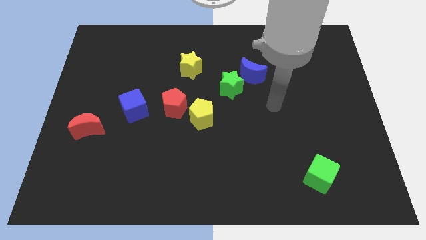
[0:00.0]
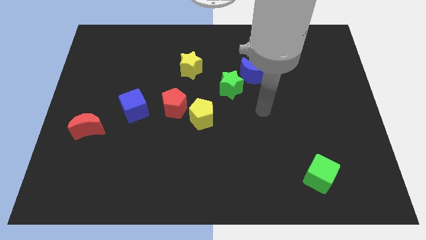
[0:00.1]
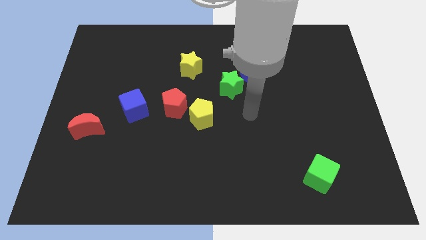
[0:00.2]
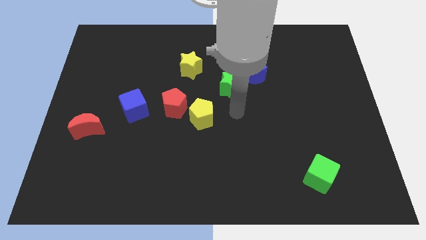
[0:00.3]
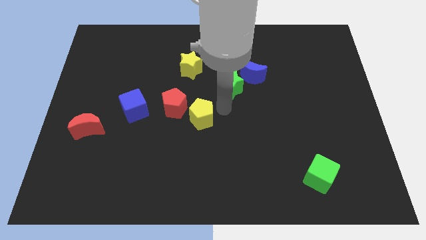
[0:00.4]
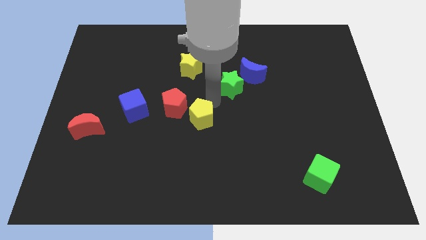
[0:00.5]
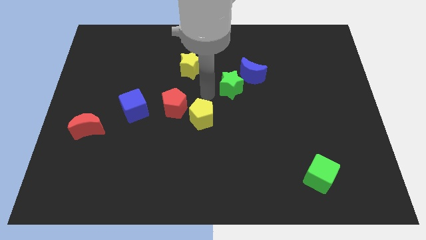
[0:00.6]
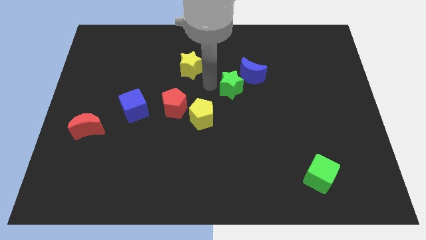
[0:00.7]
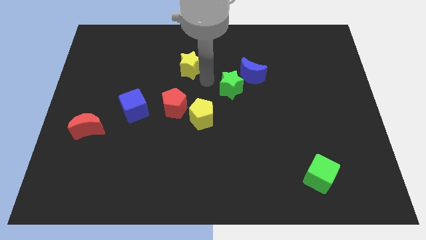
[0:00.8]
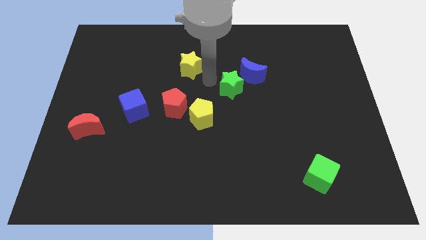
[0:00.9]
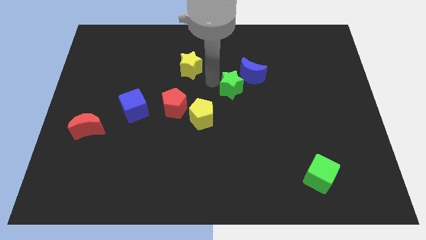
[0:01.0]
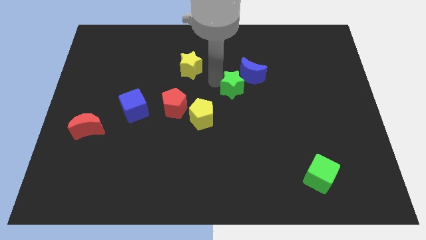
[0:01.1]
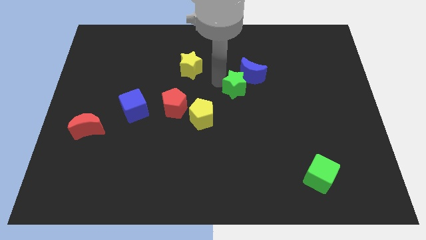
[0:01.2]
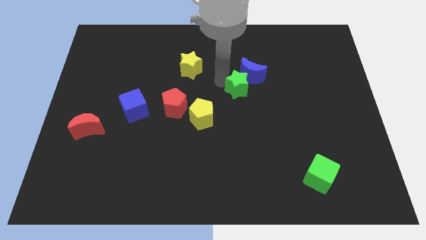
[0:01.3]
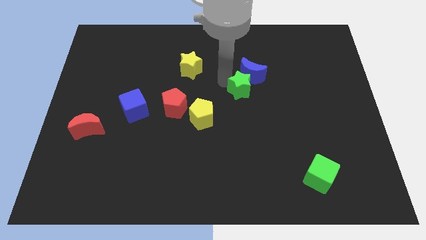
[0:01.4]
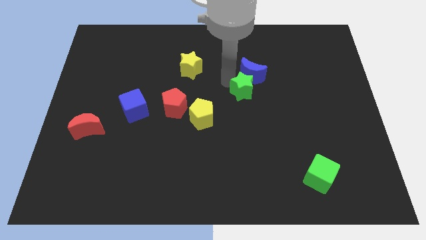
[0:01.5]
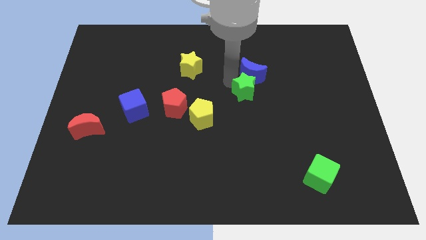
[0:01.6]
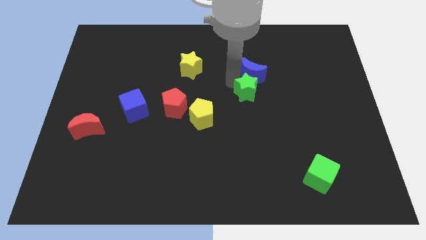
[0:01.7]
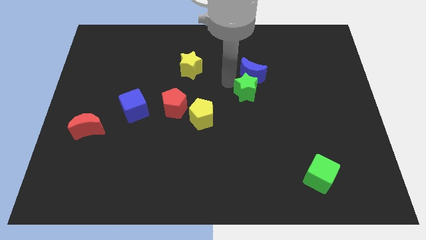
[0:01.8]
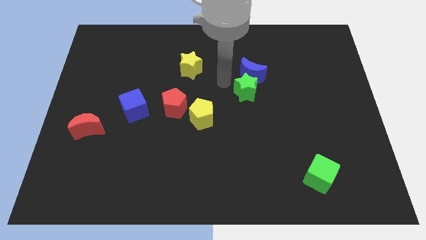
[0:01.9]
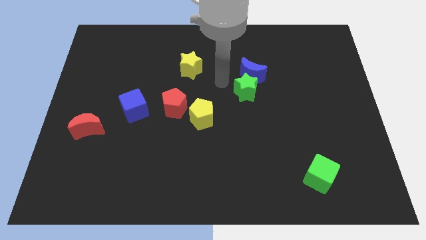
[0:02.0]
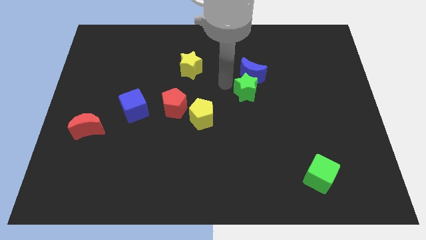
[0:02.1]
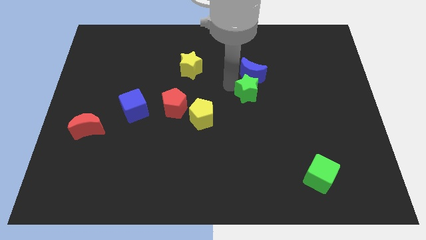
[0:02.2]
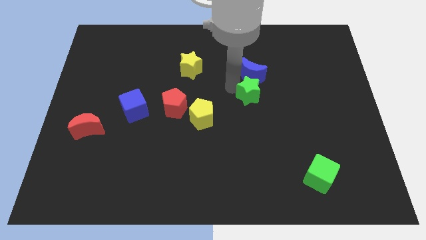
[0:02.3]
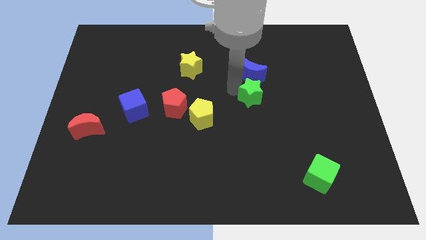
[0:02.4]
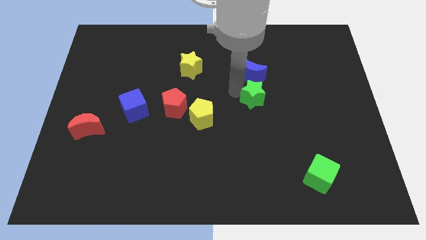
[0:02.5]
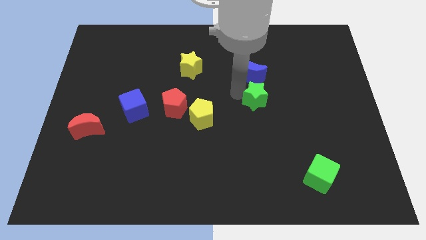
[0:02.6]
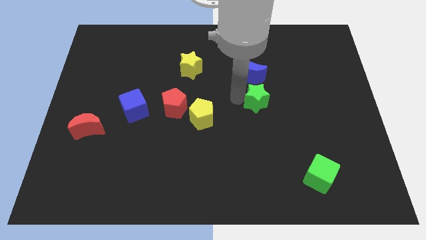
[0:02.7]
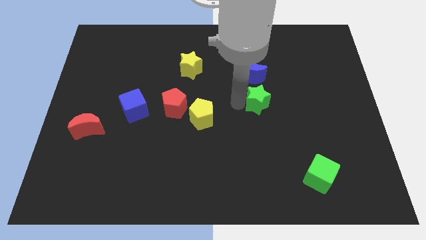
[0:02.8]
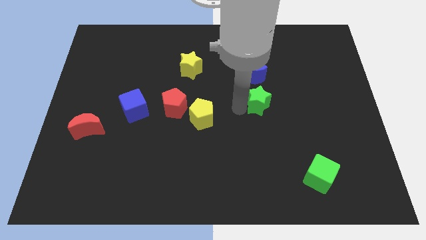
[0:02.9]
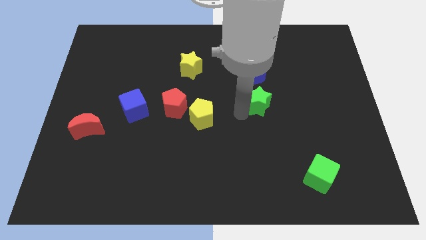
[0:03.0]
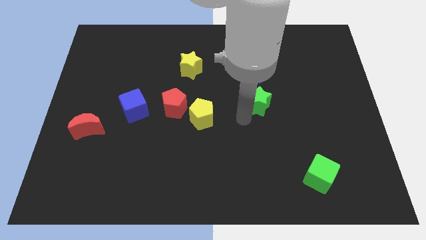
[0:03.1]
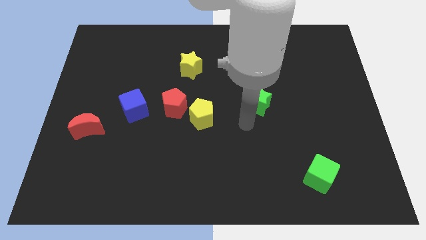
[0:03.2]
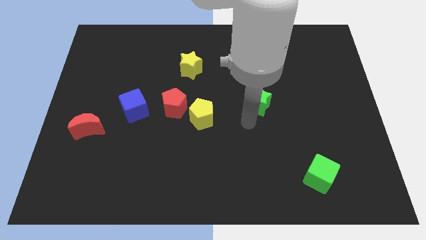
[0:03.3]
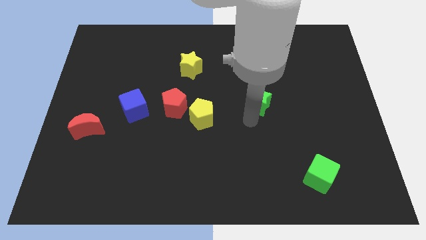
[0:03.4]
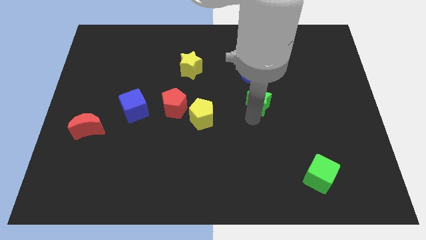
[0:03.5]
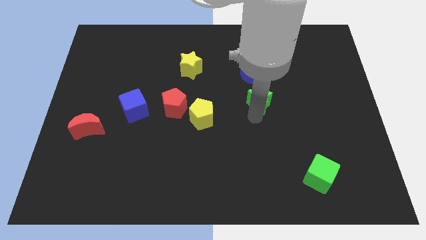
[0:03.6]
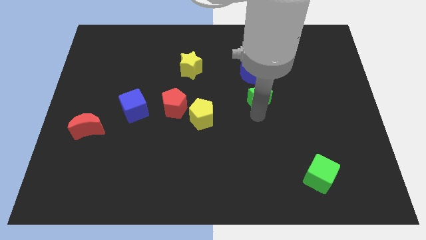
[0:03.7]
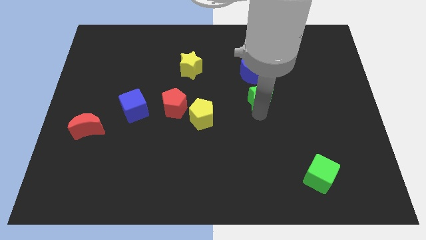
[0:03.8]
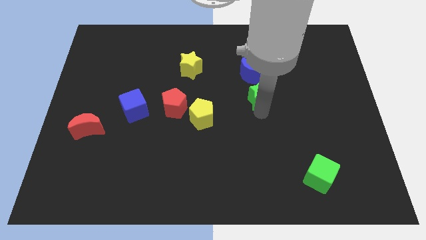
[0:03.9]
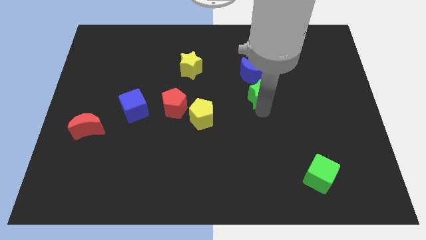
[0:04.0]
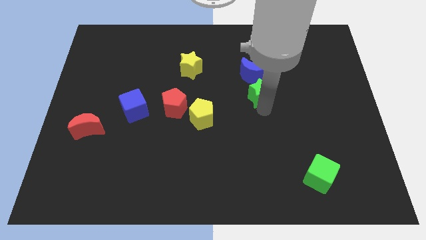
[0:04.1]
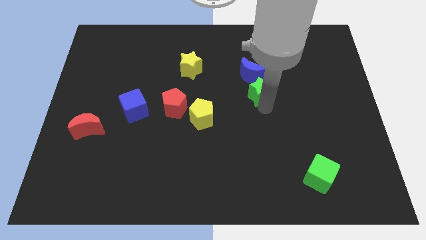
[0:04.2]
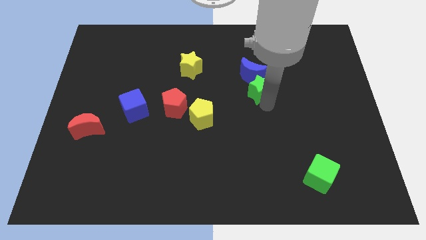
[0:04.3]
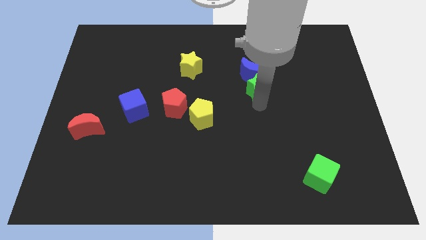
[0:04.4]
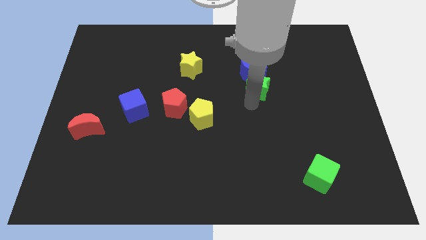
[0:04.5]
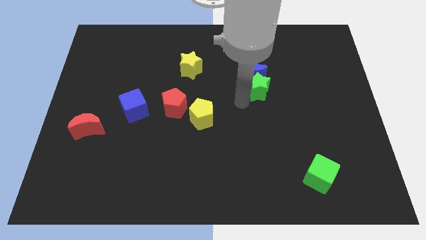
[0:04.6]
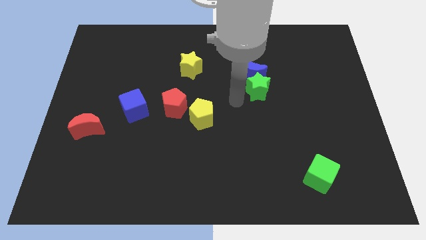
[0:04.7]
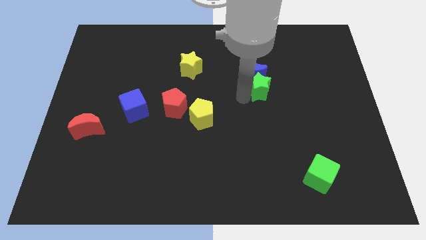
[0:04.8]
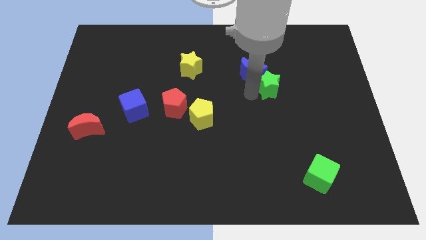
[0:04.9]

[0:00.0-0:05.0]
push the green star right of the blue moon

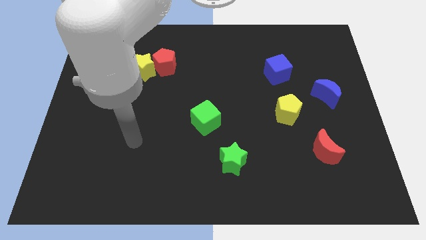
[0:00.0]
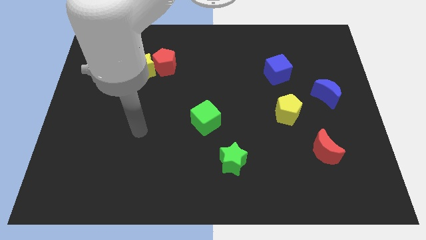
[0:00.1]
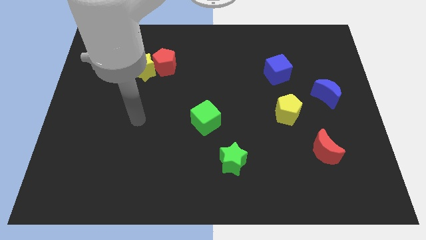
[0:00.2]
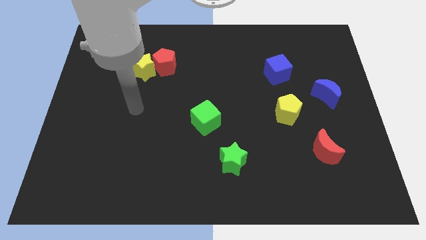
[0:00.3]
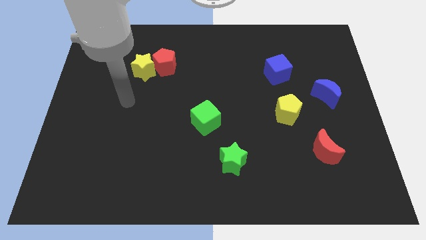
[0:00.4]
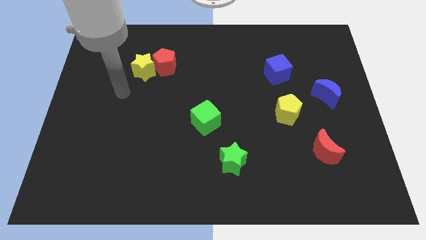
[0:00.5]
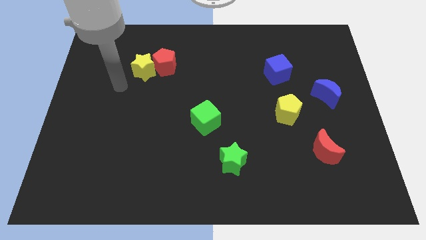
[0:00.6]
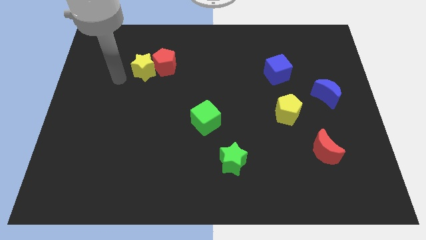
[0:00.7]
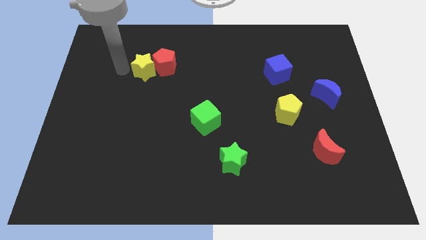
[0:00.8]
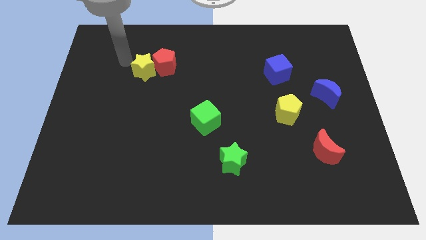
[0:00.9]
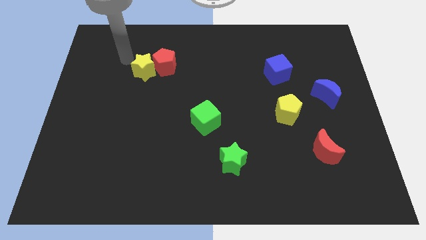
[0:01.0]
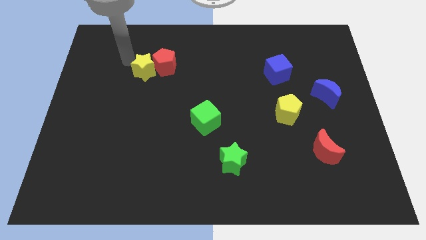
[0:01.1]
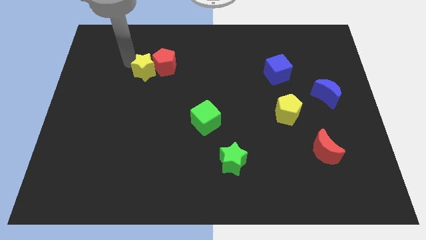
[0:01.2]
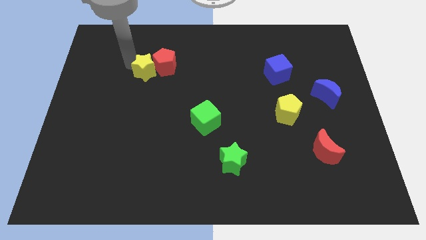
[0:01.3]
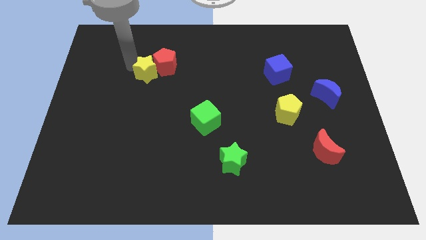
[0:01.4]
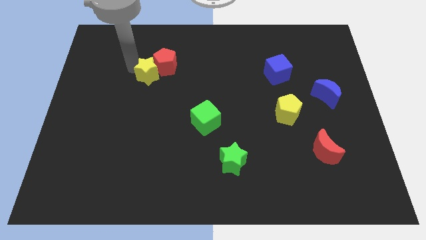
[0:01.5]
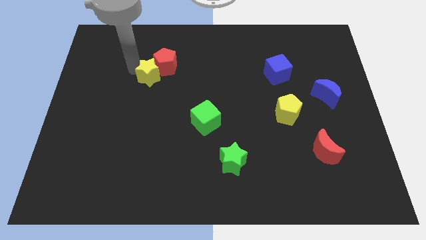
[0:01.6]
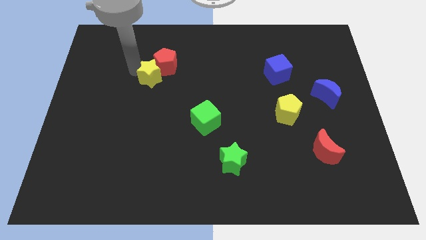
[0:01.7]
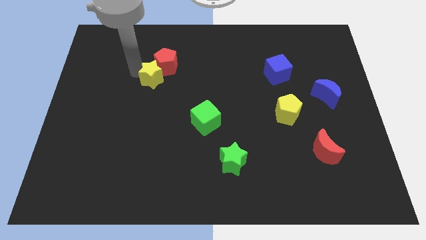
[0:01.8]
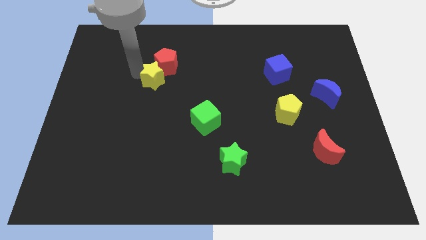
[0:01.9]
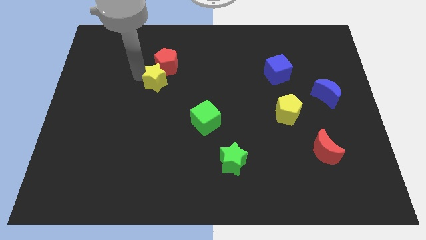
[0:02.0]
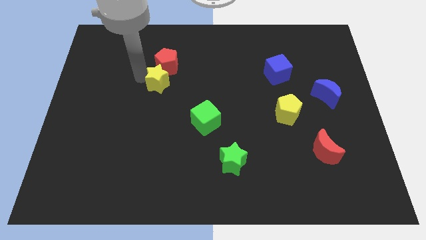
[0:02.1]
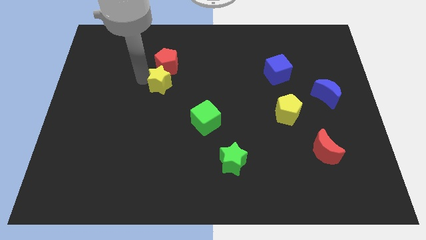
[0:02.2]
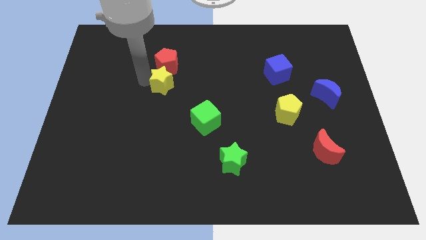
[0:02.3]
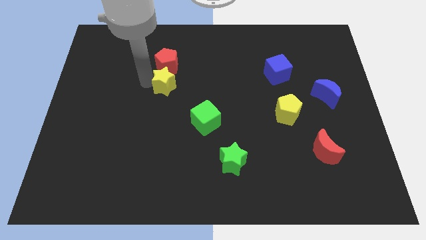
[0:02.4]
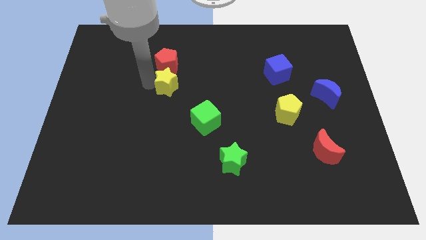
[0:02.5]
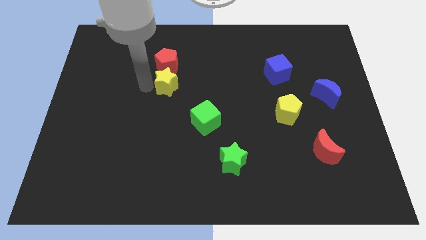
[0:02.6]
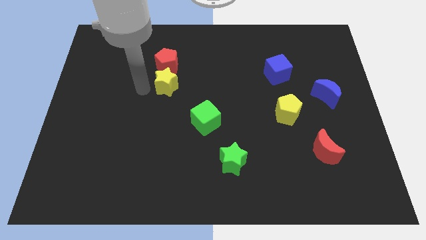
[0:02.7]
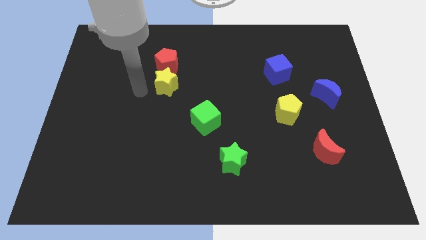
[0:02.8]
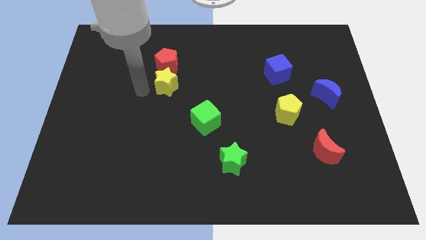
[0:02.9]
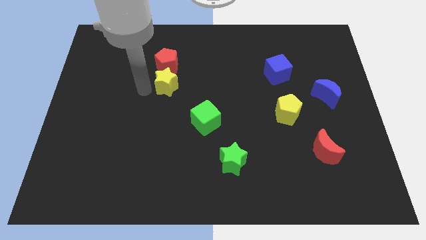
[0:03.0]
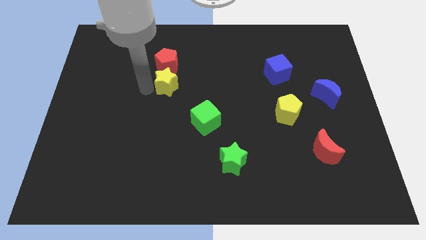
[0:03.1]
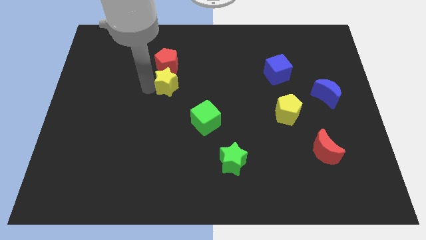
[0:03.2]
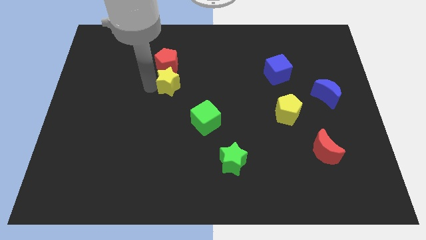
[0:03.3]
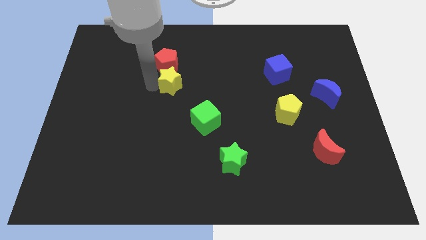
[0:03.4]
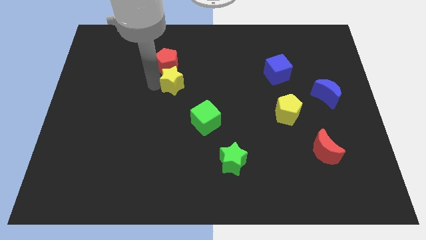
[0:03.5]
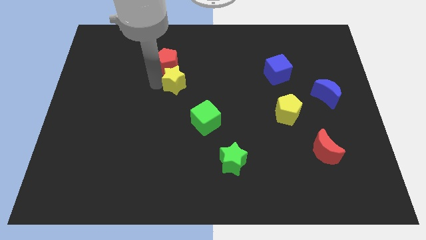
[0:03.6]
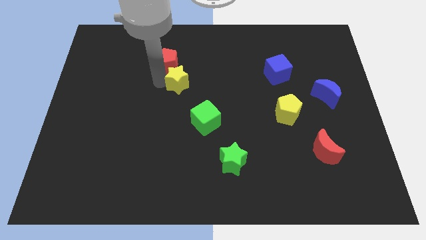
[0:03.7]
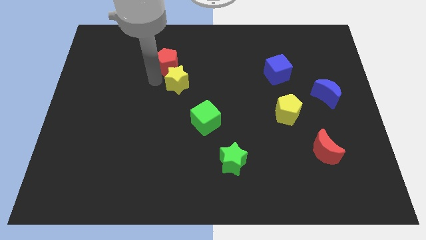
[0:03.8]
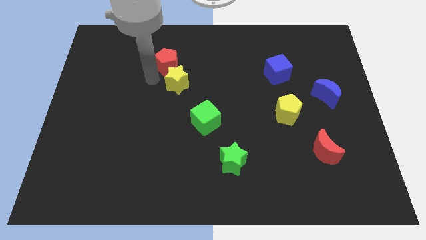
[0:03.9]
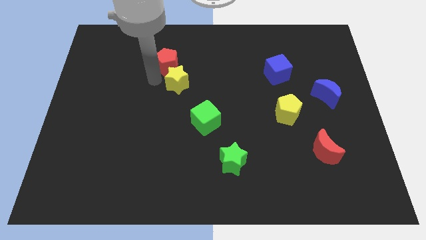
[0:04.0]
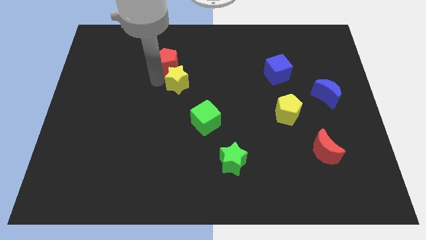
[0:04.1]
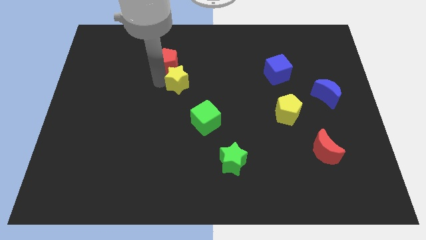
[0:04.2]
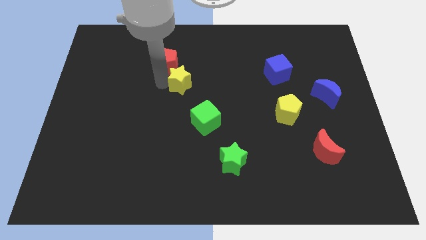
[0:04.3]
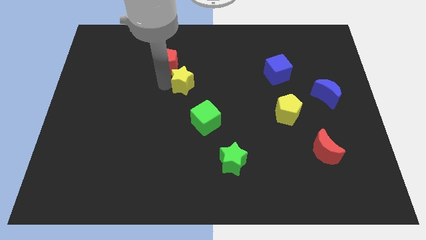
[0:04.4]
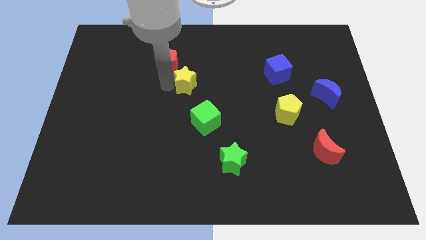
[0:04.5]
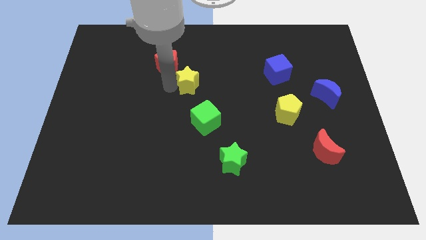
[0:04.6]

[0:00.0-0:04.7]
push the yellow star to the top side of the green cube
